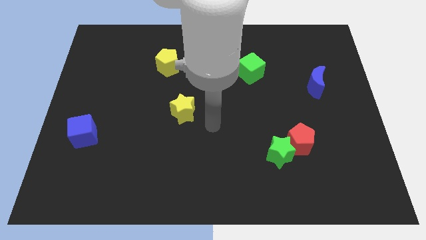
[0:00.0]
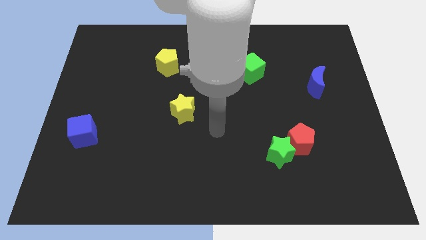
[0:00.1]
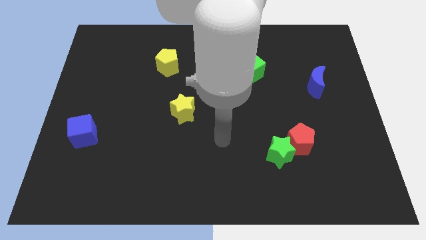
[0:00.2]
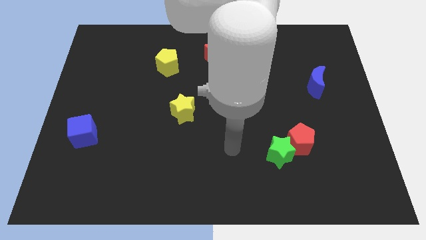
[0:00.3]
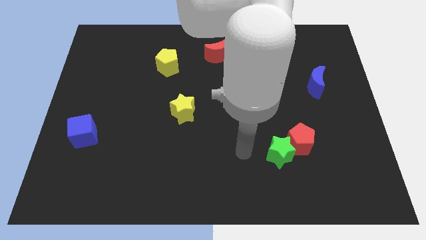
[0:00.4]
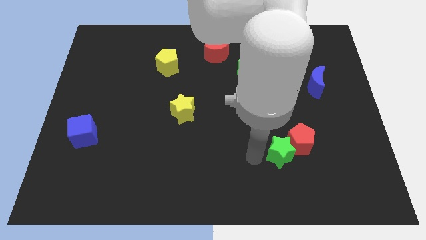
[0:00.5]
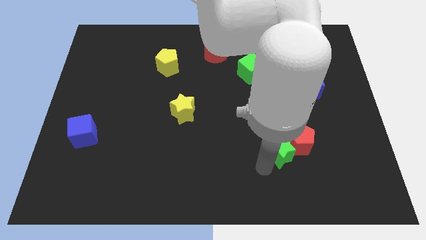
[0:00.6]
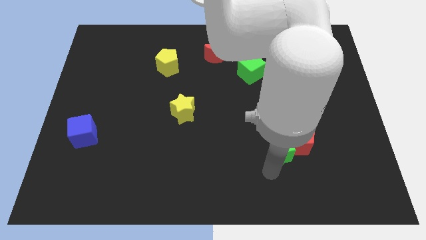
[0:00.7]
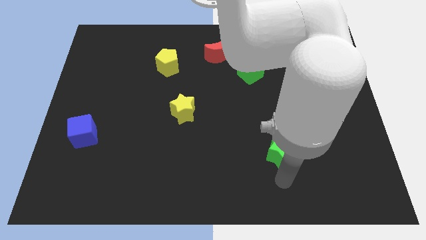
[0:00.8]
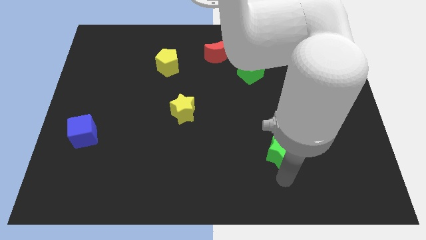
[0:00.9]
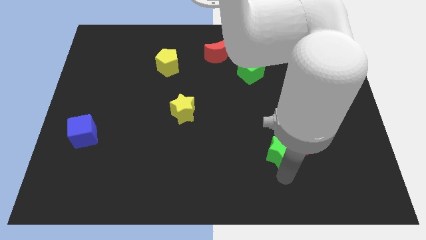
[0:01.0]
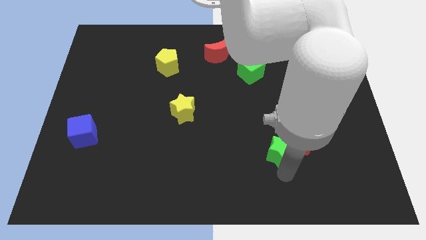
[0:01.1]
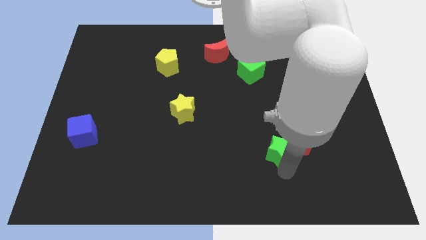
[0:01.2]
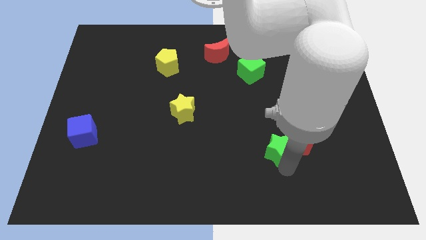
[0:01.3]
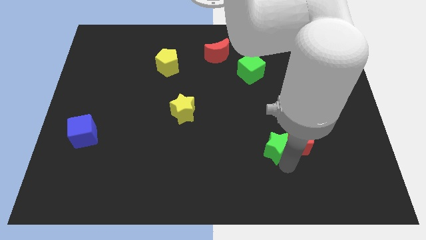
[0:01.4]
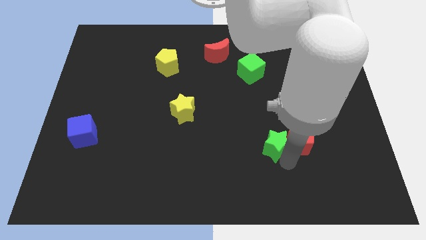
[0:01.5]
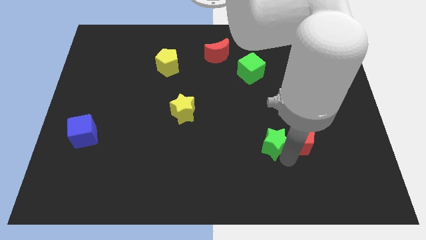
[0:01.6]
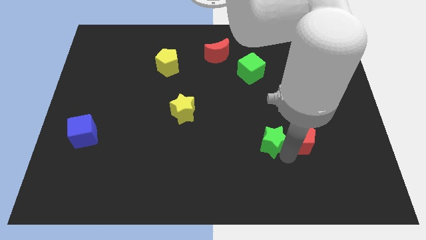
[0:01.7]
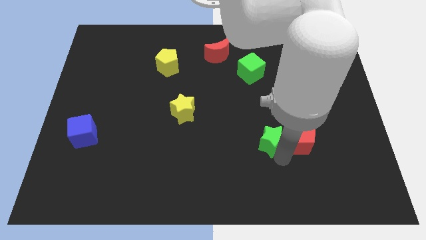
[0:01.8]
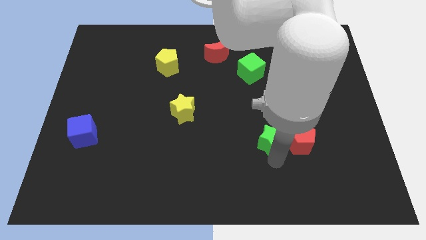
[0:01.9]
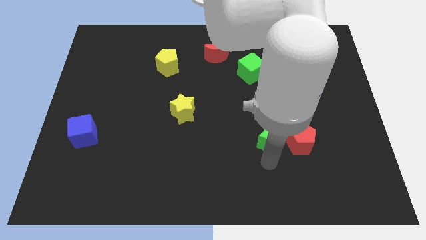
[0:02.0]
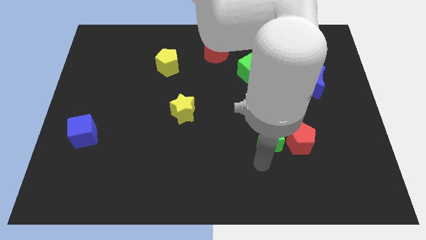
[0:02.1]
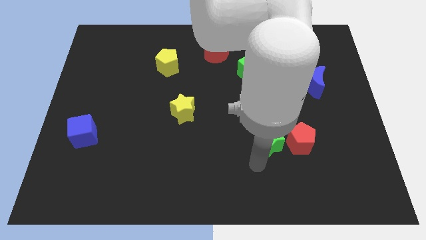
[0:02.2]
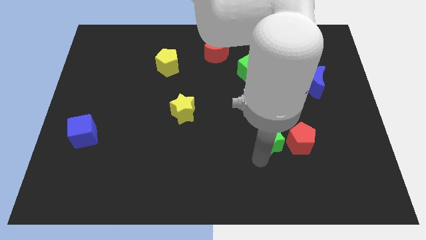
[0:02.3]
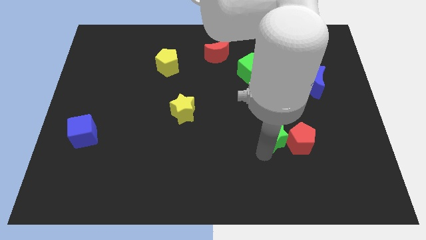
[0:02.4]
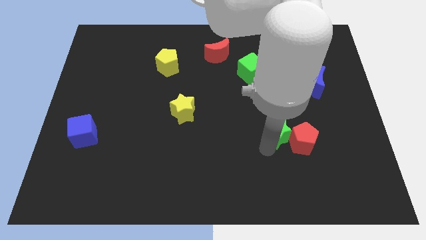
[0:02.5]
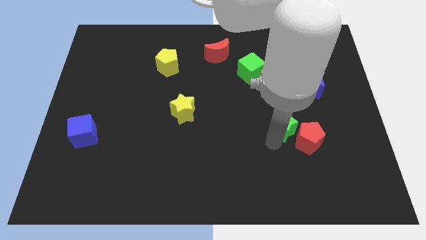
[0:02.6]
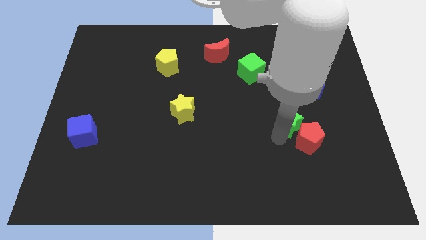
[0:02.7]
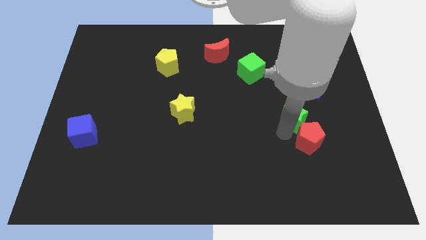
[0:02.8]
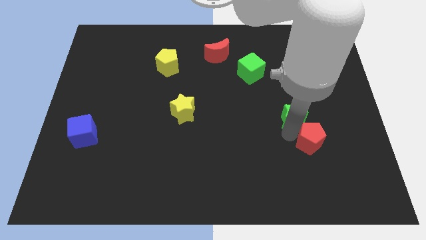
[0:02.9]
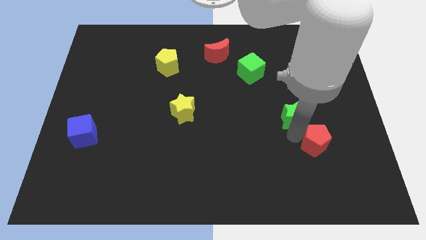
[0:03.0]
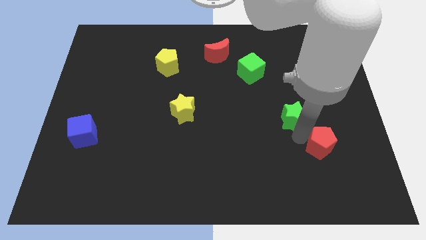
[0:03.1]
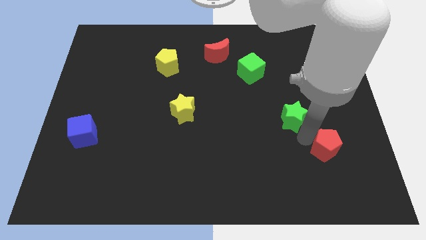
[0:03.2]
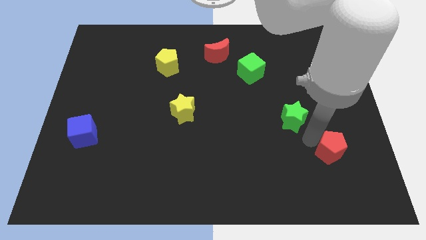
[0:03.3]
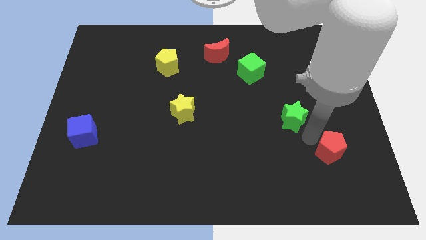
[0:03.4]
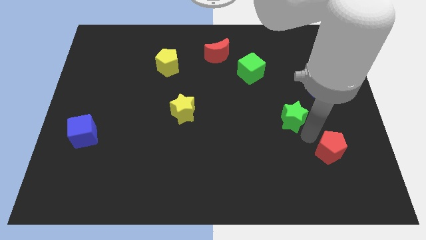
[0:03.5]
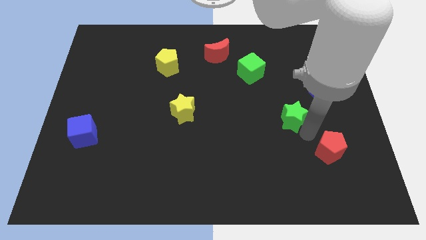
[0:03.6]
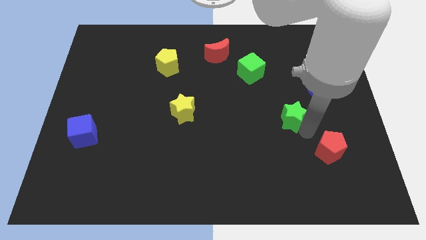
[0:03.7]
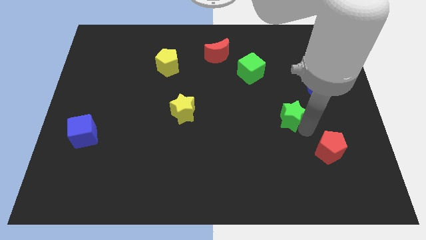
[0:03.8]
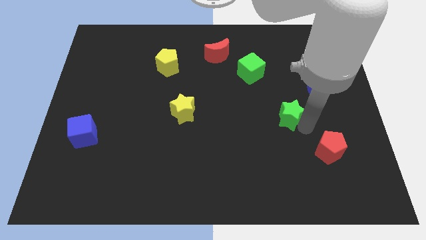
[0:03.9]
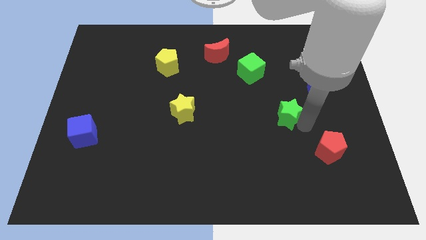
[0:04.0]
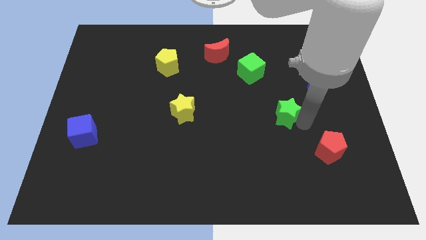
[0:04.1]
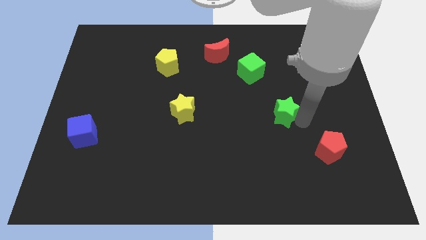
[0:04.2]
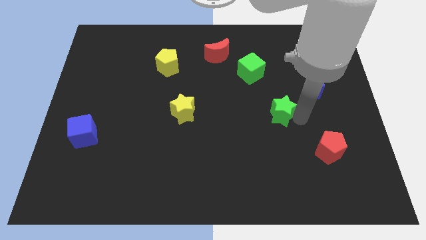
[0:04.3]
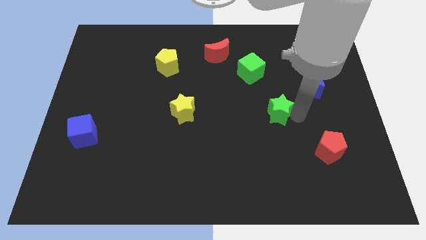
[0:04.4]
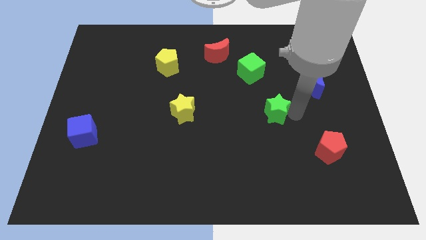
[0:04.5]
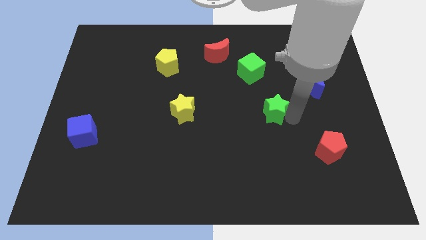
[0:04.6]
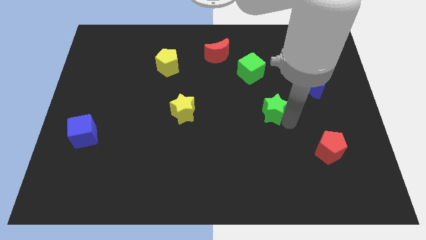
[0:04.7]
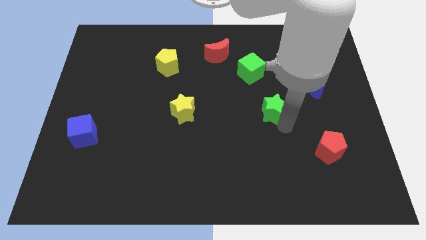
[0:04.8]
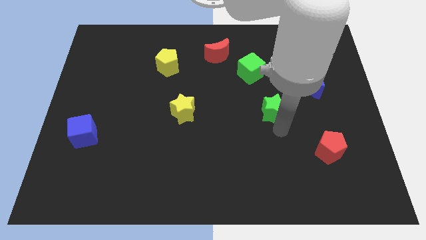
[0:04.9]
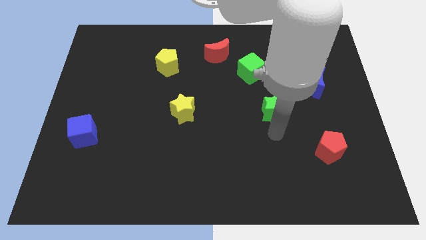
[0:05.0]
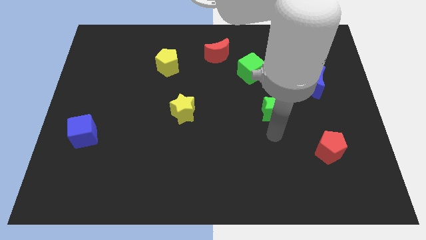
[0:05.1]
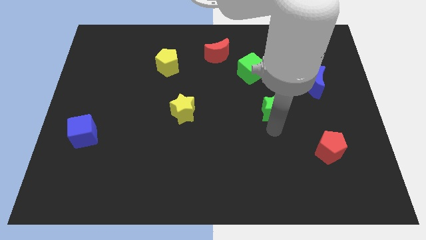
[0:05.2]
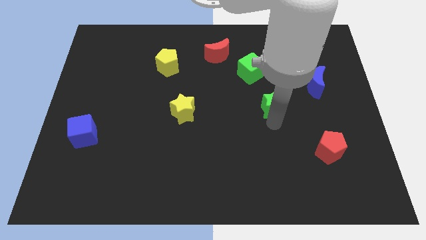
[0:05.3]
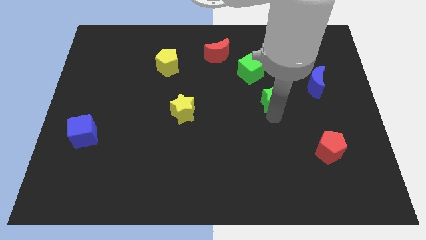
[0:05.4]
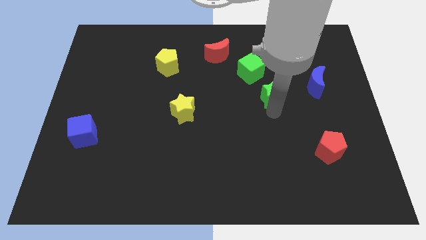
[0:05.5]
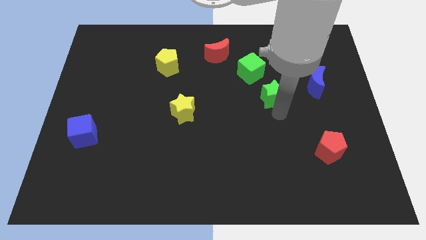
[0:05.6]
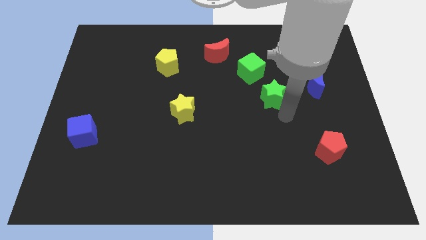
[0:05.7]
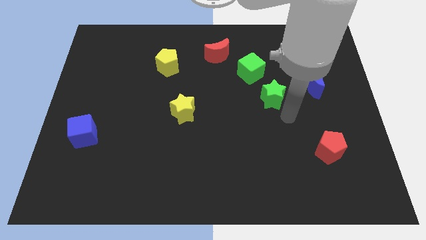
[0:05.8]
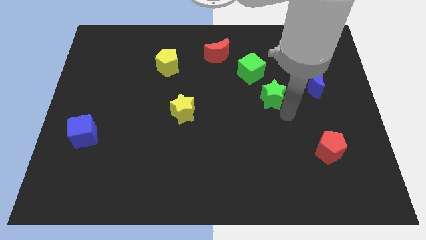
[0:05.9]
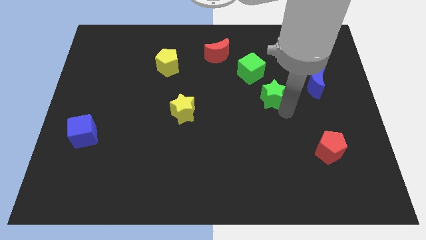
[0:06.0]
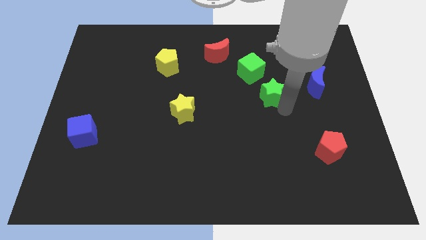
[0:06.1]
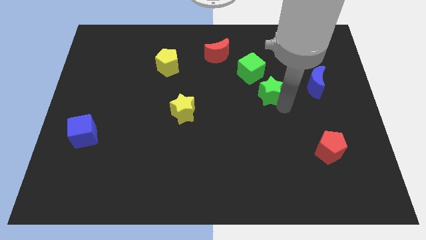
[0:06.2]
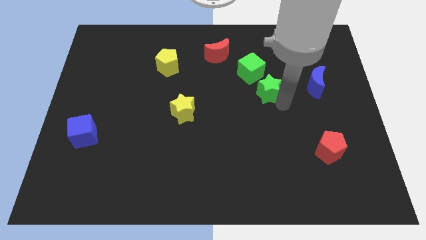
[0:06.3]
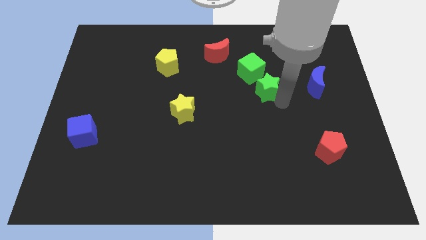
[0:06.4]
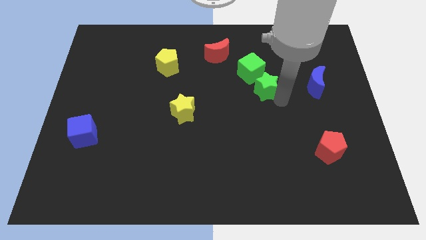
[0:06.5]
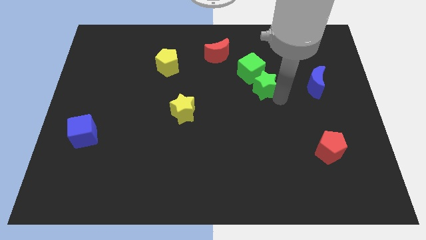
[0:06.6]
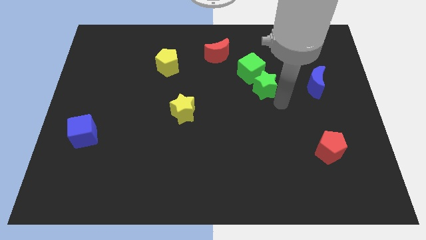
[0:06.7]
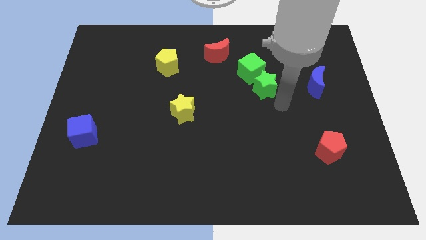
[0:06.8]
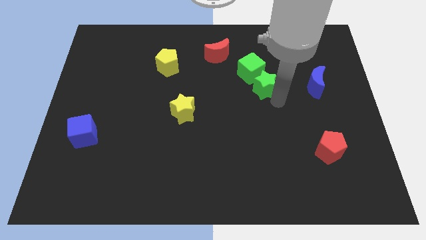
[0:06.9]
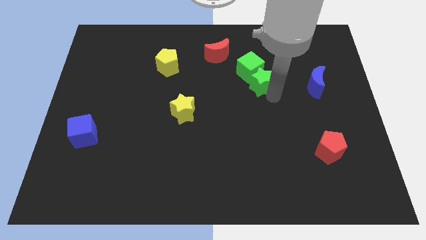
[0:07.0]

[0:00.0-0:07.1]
move the green star close to the green cube

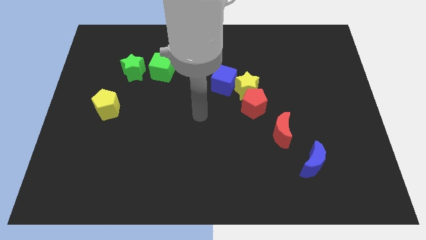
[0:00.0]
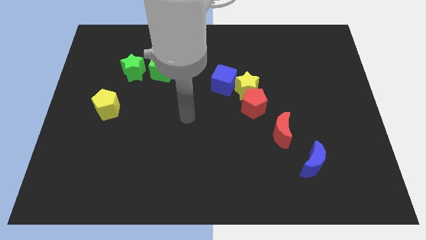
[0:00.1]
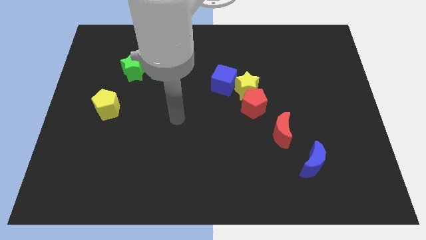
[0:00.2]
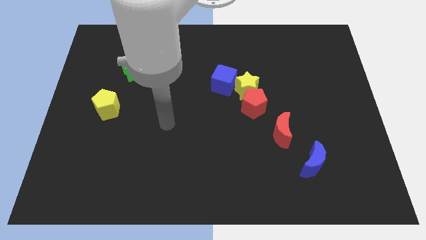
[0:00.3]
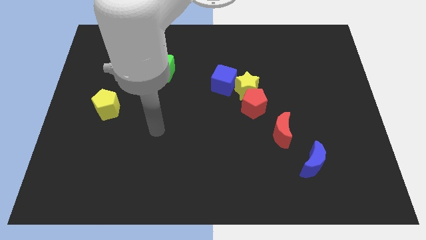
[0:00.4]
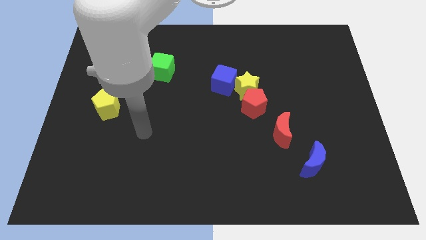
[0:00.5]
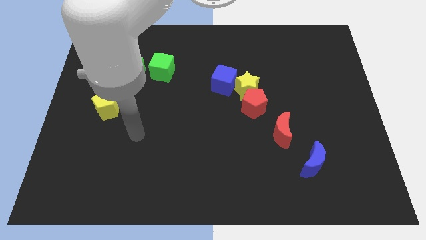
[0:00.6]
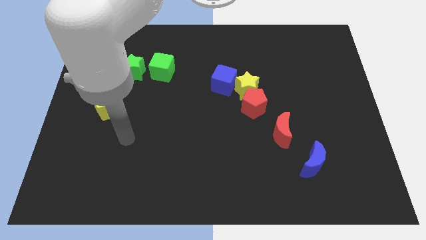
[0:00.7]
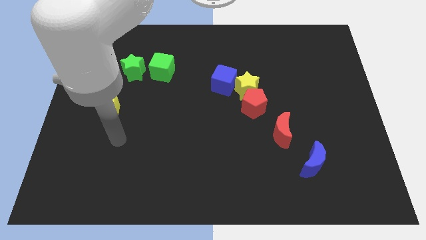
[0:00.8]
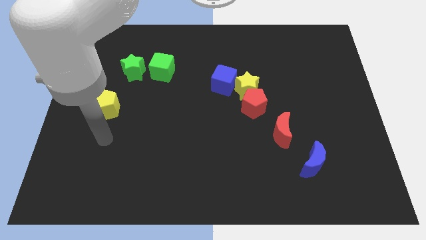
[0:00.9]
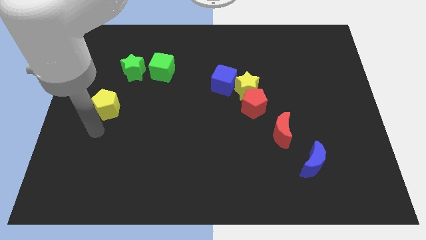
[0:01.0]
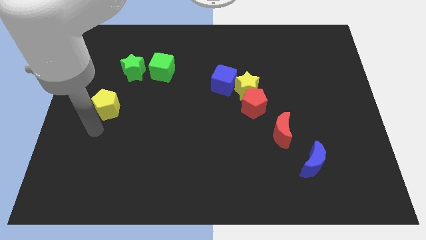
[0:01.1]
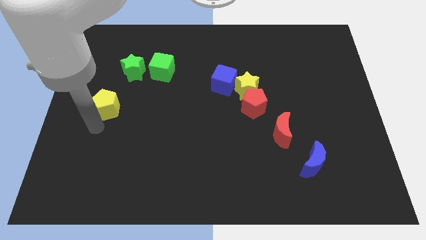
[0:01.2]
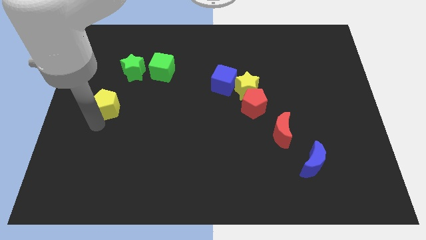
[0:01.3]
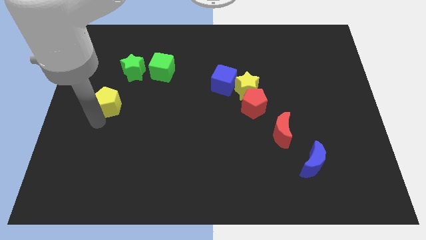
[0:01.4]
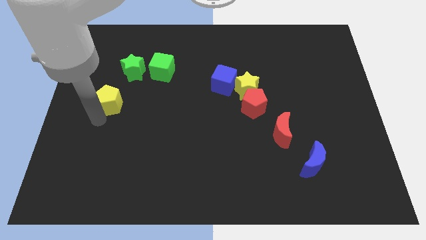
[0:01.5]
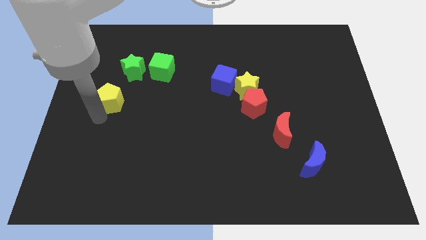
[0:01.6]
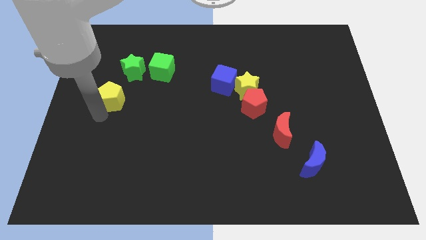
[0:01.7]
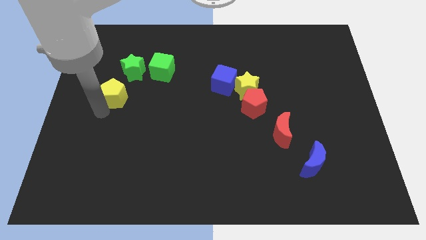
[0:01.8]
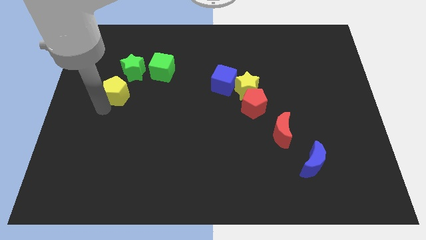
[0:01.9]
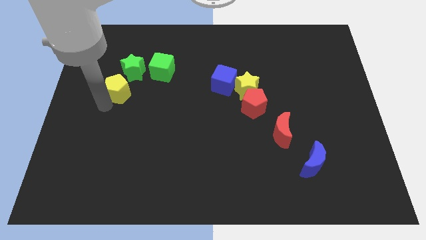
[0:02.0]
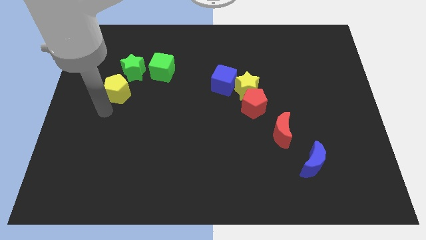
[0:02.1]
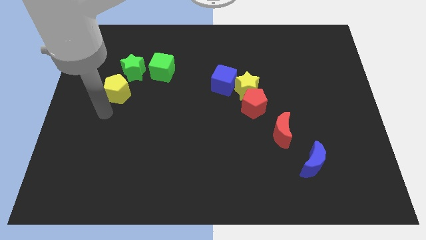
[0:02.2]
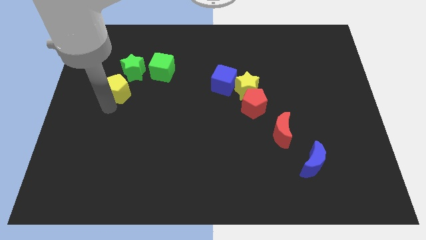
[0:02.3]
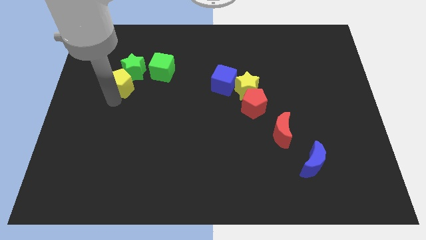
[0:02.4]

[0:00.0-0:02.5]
push the yellow pentagon next to the green star
